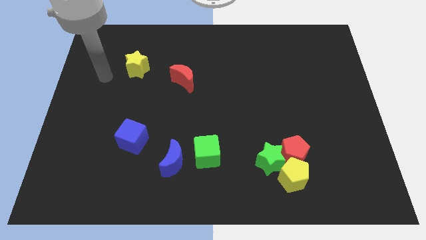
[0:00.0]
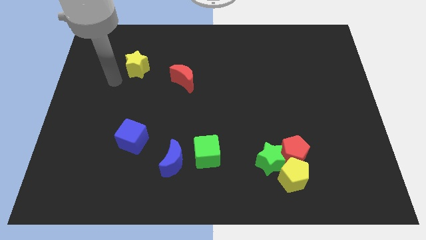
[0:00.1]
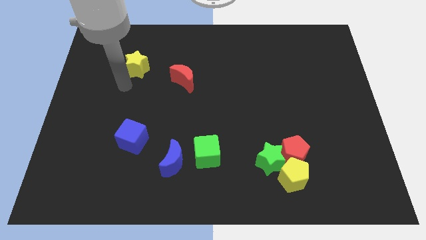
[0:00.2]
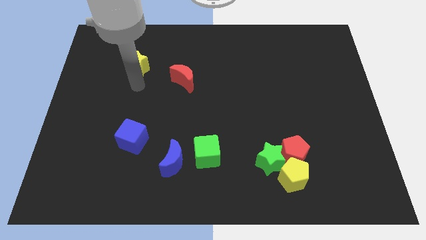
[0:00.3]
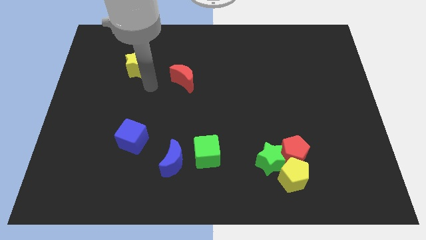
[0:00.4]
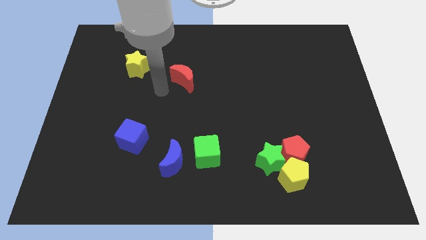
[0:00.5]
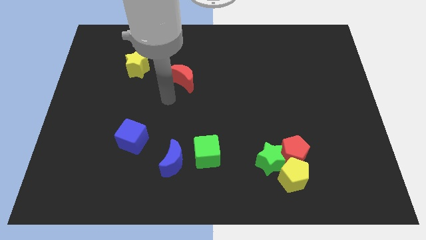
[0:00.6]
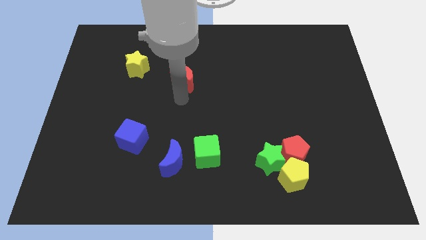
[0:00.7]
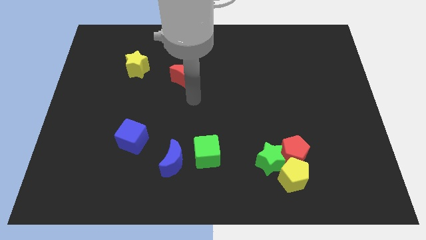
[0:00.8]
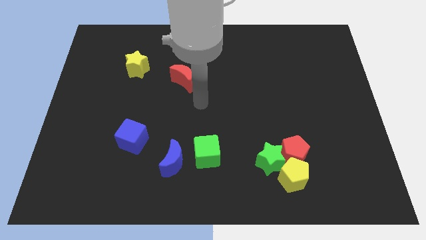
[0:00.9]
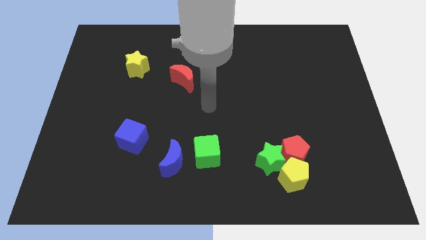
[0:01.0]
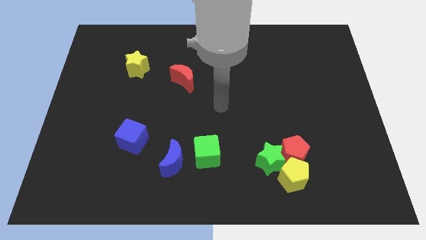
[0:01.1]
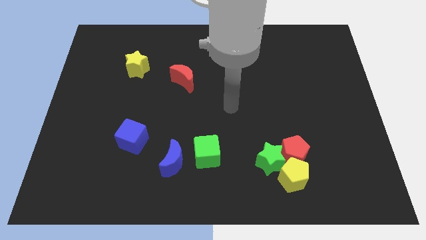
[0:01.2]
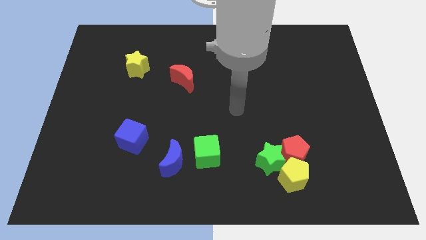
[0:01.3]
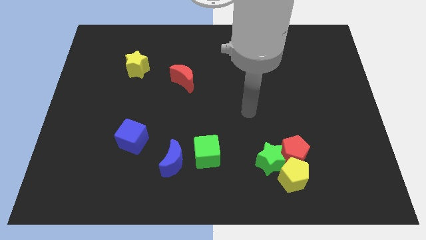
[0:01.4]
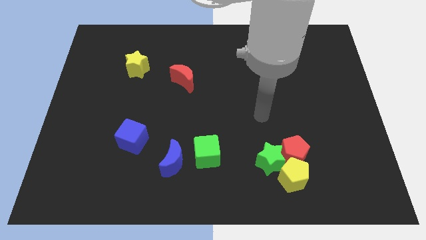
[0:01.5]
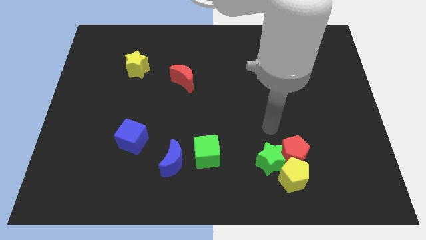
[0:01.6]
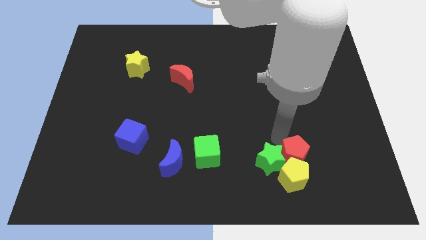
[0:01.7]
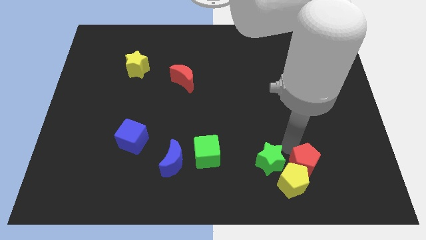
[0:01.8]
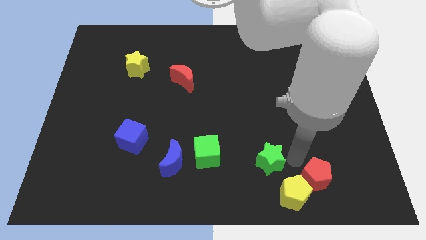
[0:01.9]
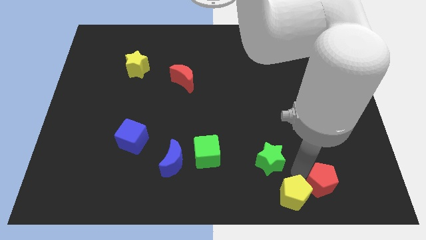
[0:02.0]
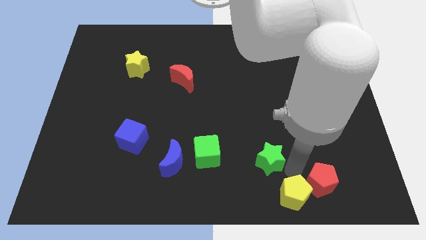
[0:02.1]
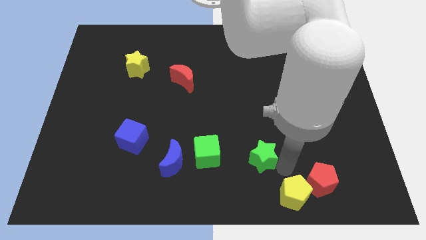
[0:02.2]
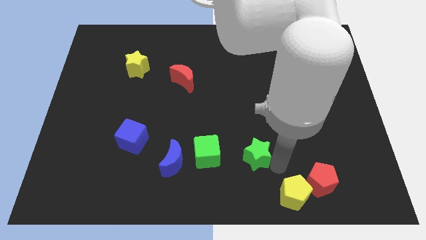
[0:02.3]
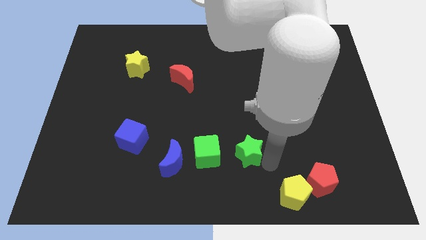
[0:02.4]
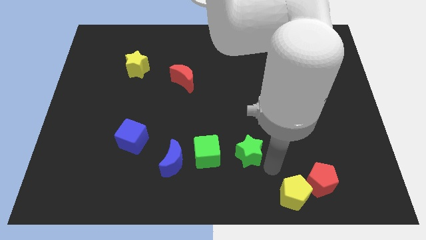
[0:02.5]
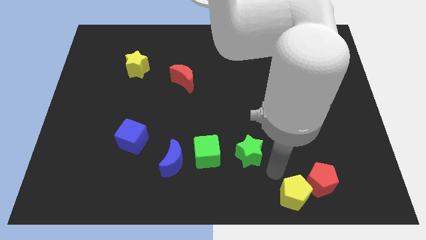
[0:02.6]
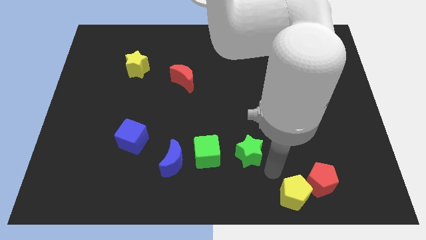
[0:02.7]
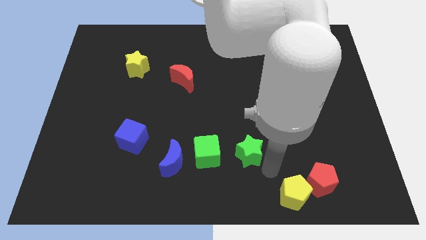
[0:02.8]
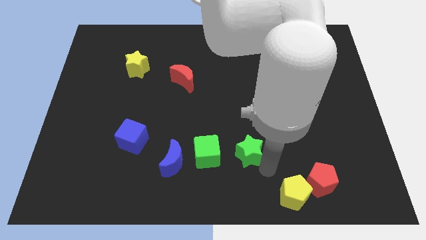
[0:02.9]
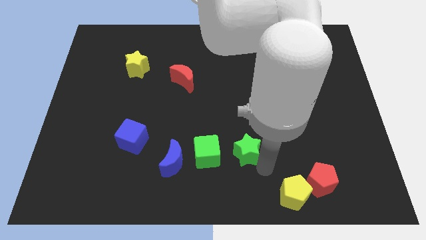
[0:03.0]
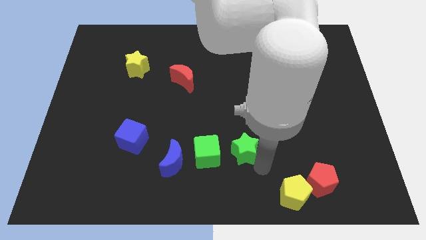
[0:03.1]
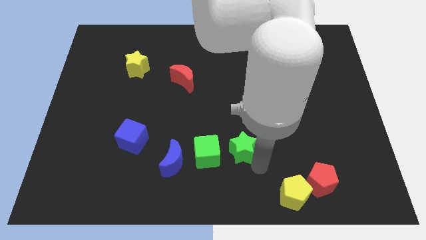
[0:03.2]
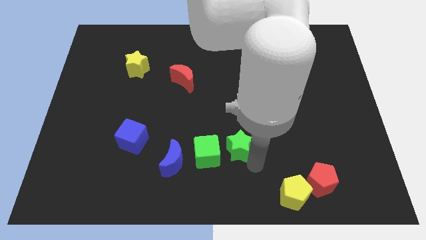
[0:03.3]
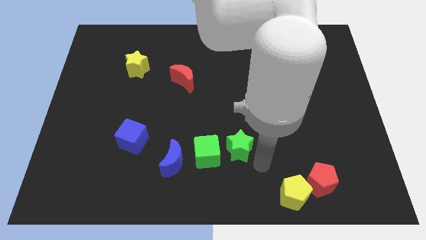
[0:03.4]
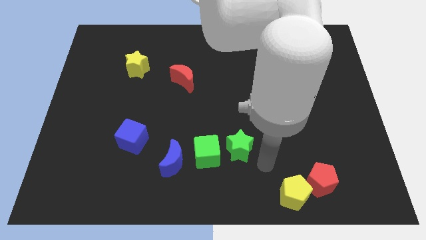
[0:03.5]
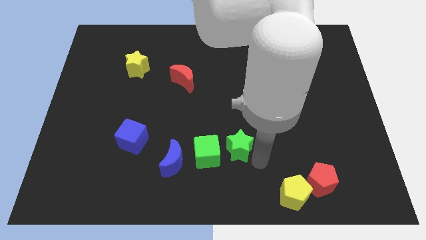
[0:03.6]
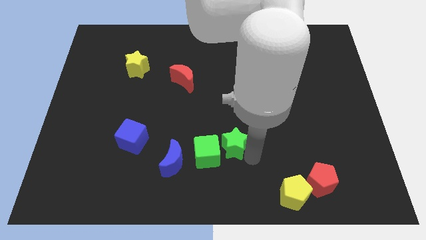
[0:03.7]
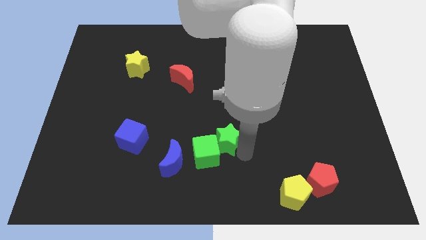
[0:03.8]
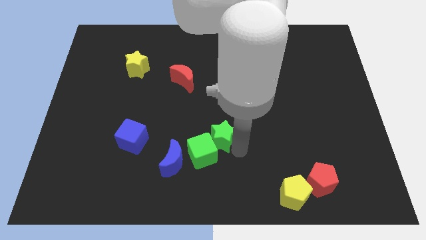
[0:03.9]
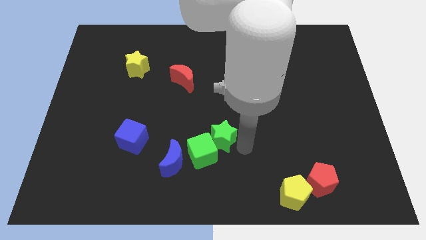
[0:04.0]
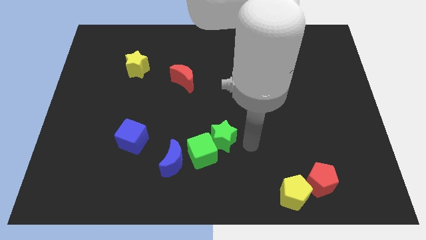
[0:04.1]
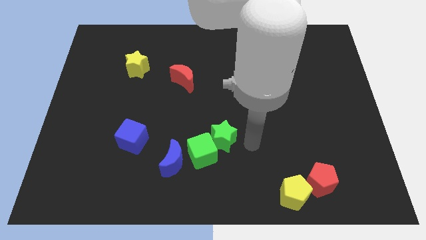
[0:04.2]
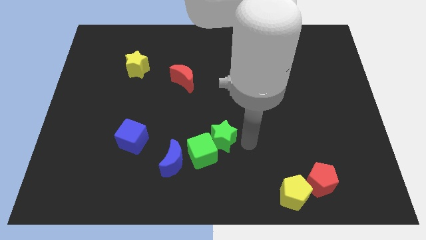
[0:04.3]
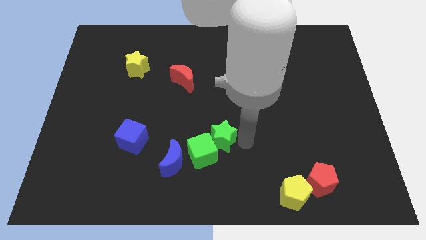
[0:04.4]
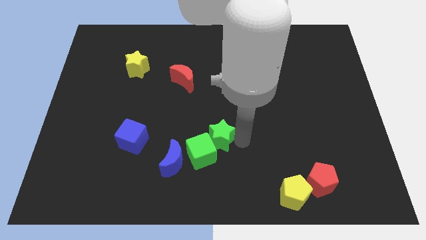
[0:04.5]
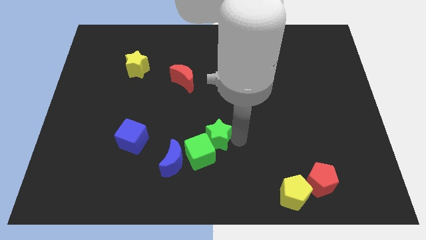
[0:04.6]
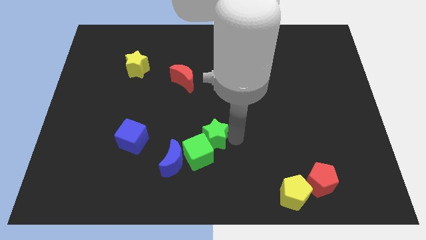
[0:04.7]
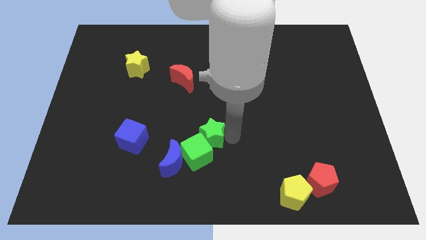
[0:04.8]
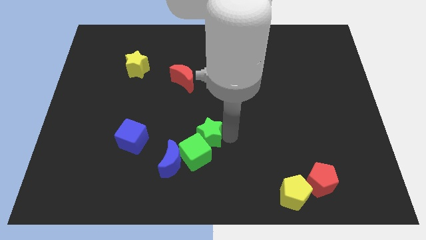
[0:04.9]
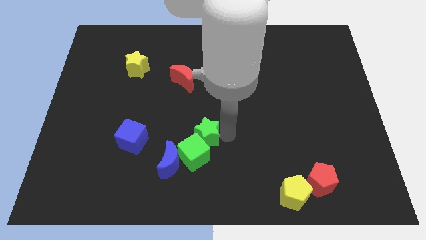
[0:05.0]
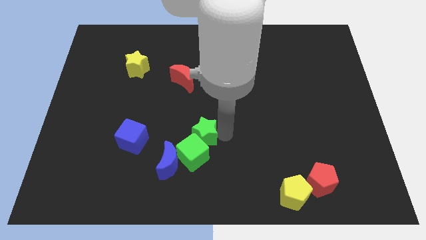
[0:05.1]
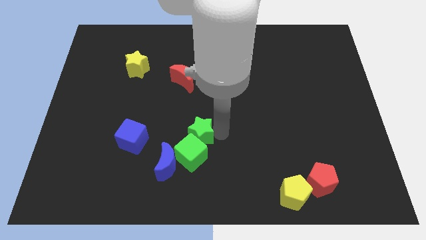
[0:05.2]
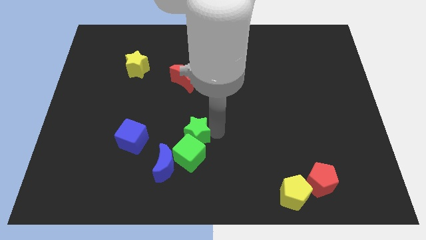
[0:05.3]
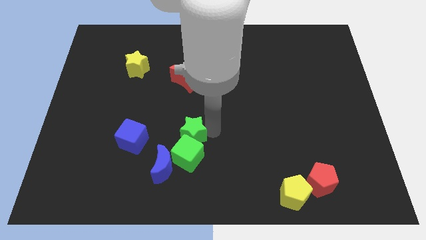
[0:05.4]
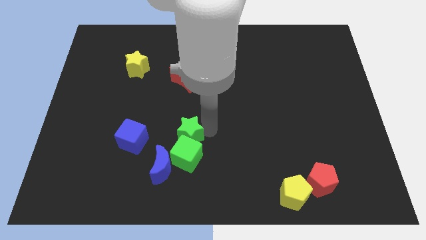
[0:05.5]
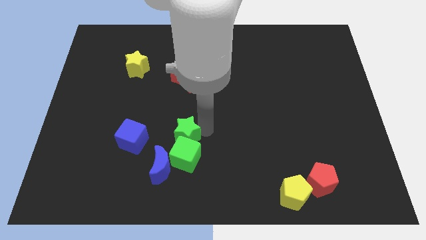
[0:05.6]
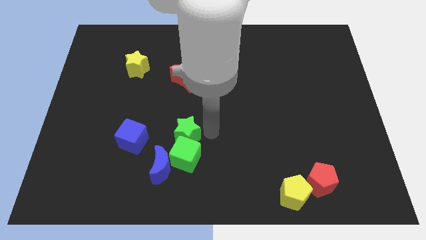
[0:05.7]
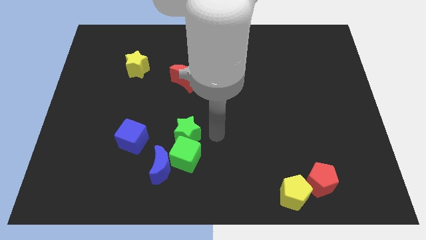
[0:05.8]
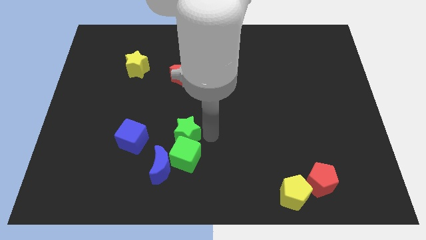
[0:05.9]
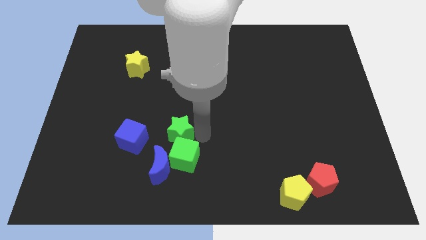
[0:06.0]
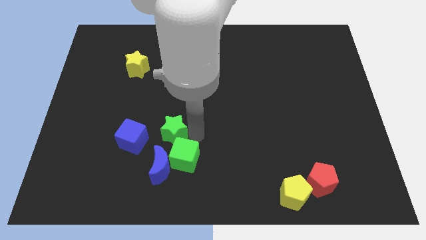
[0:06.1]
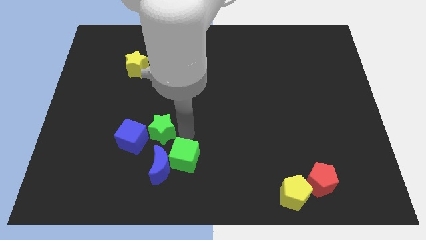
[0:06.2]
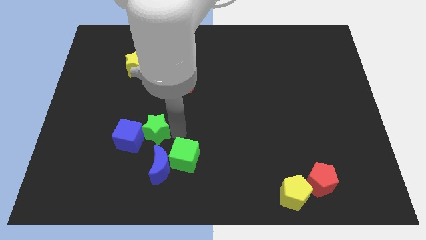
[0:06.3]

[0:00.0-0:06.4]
slide the green star close to the blue cube

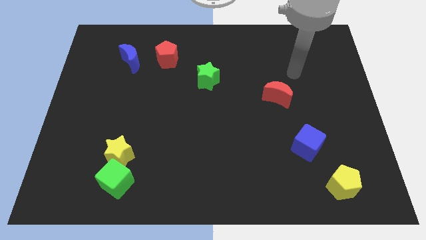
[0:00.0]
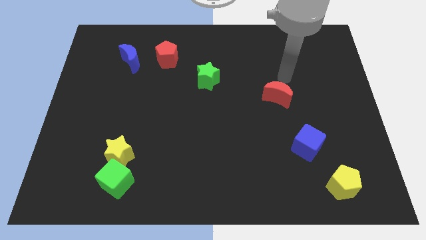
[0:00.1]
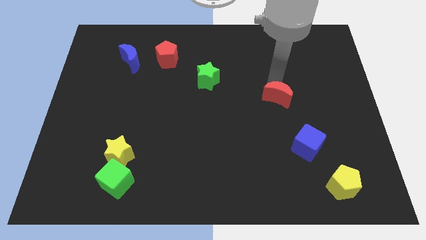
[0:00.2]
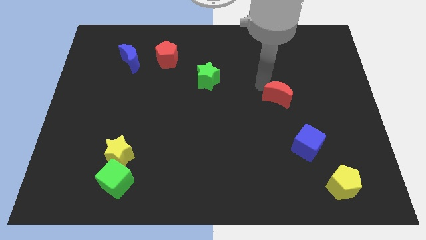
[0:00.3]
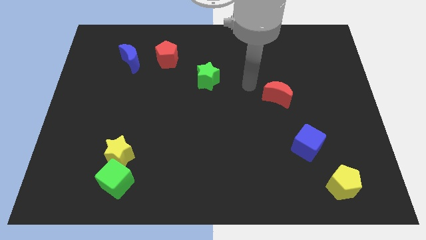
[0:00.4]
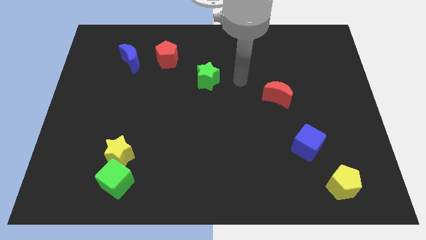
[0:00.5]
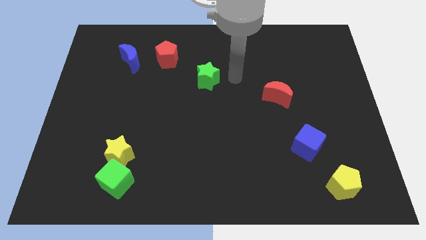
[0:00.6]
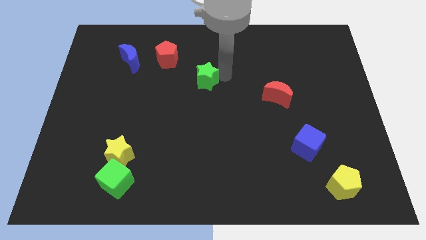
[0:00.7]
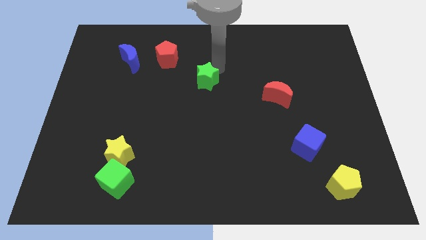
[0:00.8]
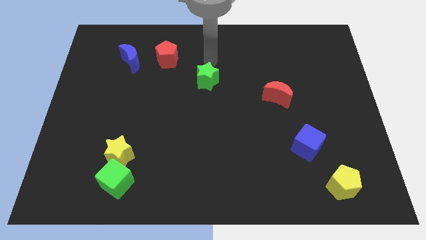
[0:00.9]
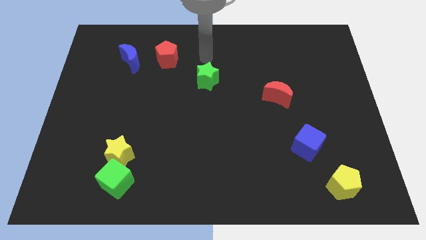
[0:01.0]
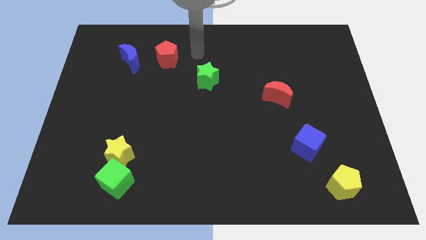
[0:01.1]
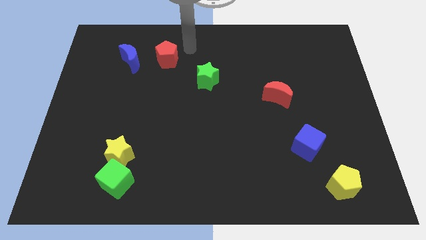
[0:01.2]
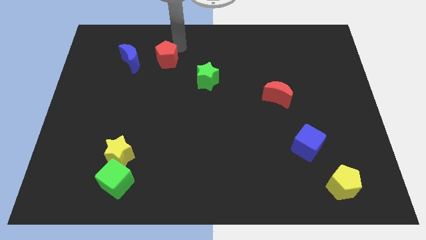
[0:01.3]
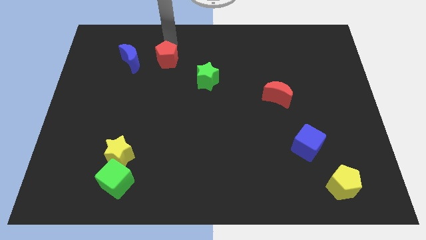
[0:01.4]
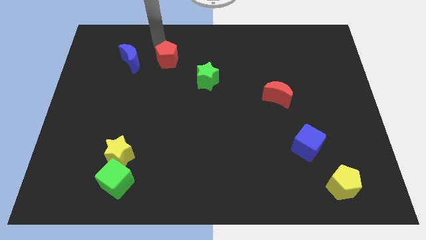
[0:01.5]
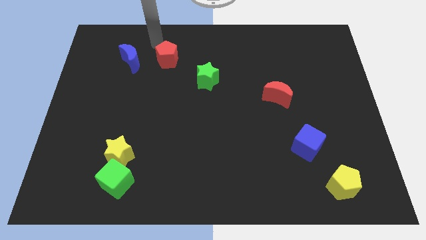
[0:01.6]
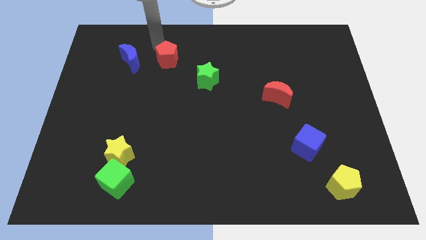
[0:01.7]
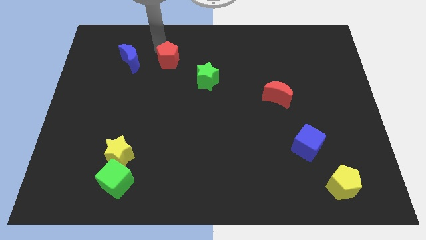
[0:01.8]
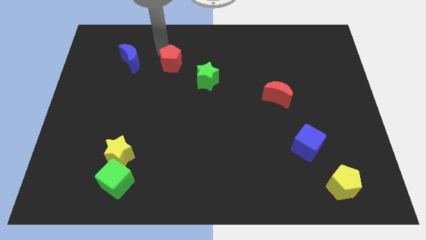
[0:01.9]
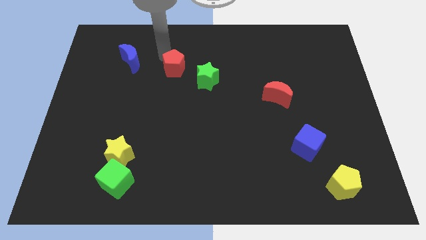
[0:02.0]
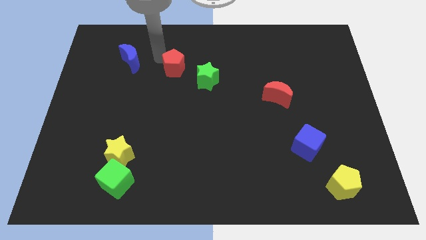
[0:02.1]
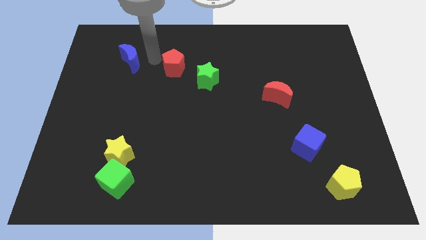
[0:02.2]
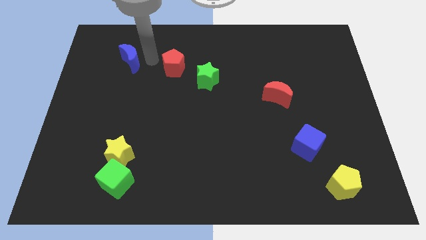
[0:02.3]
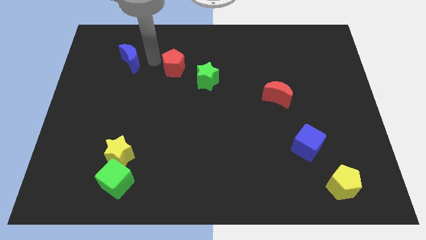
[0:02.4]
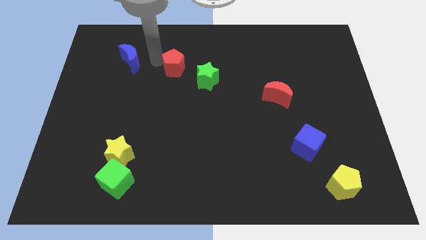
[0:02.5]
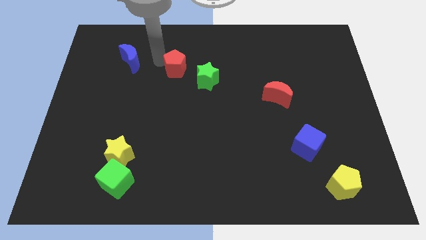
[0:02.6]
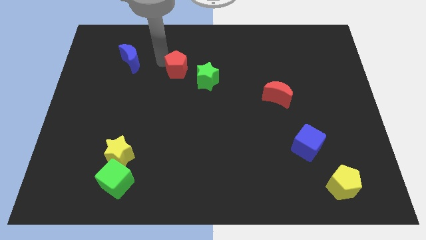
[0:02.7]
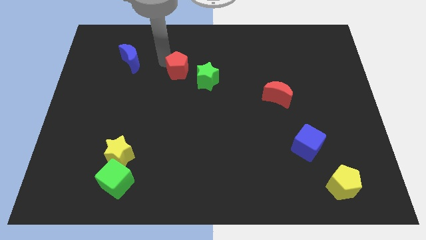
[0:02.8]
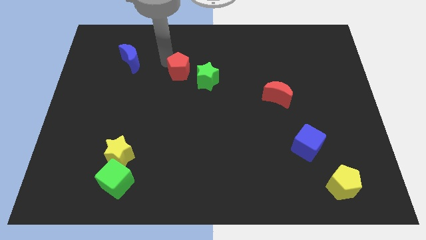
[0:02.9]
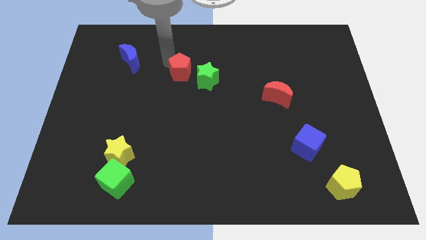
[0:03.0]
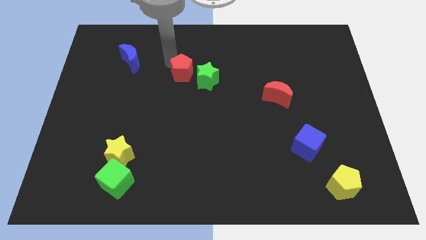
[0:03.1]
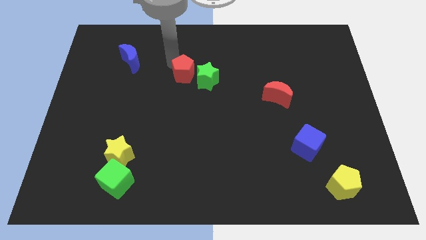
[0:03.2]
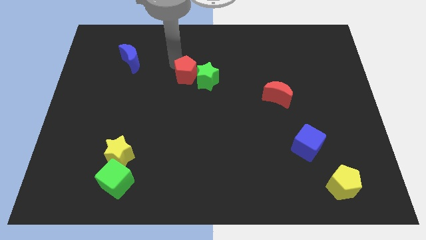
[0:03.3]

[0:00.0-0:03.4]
slide the red pentagon next to the green star
